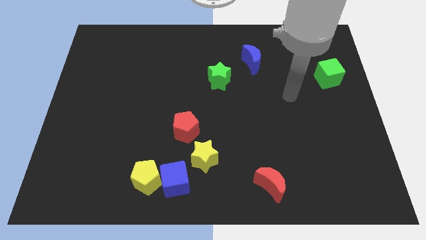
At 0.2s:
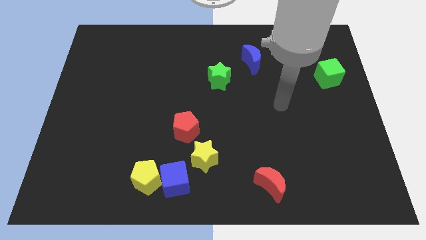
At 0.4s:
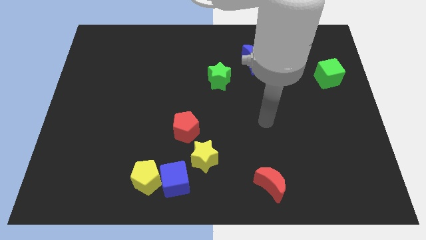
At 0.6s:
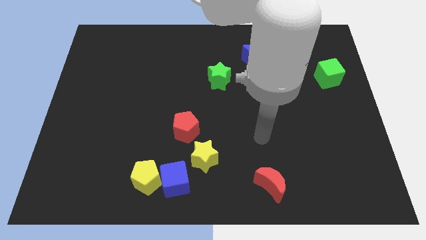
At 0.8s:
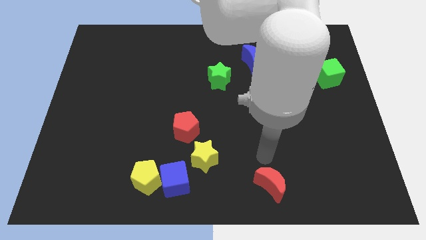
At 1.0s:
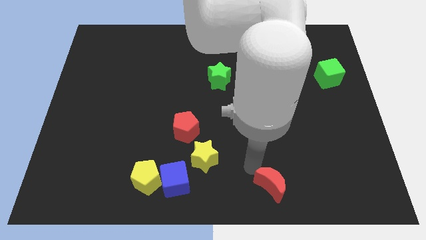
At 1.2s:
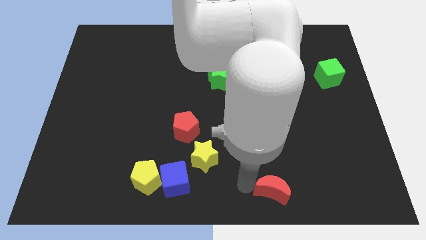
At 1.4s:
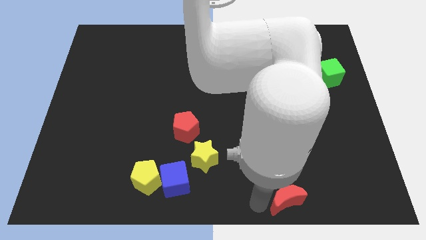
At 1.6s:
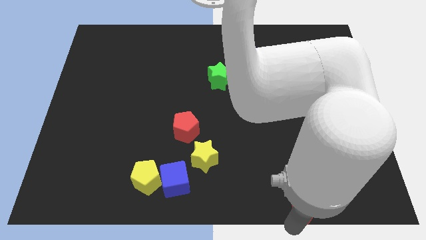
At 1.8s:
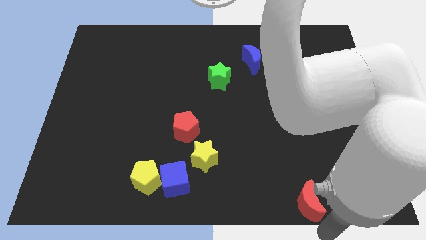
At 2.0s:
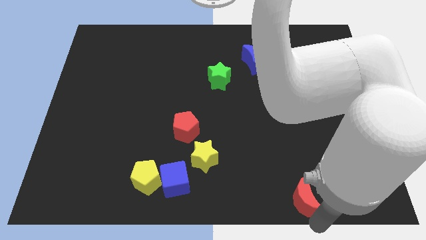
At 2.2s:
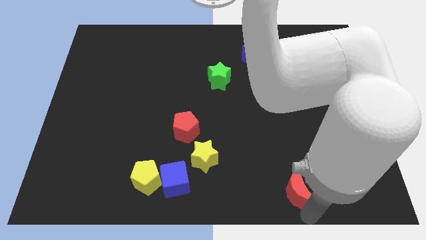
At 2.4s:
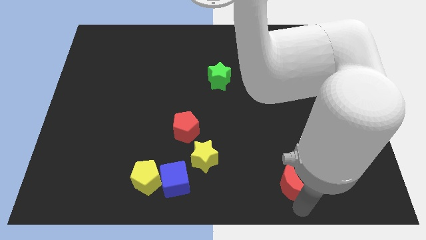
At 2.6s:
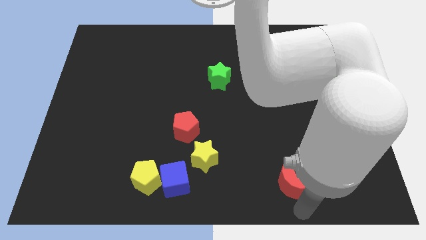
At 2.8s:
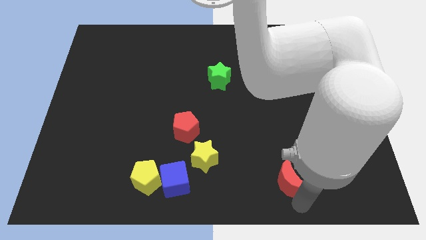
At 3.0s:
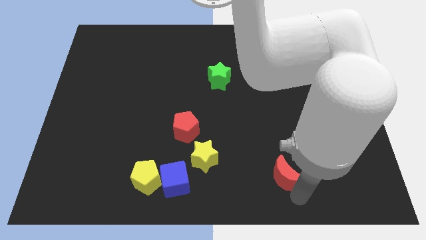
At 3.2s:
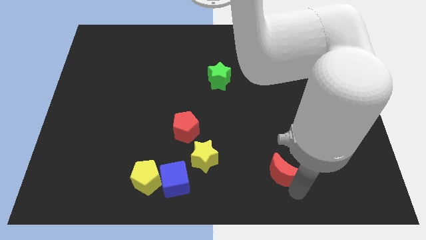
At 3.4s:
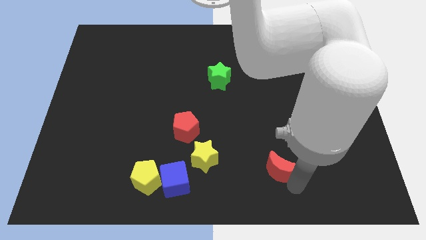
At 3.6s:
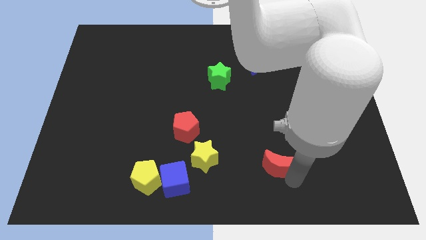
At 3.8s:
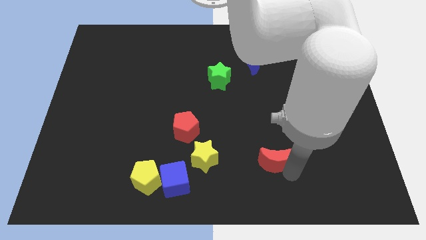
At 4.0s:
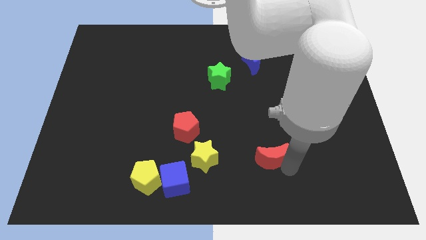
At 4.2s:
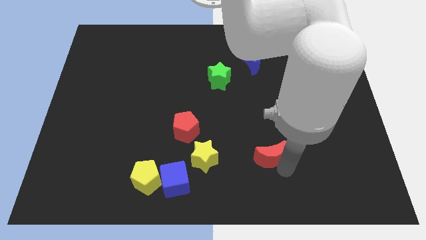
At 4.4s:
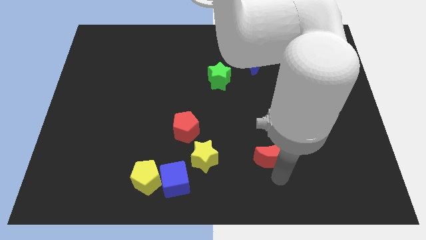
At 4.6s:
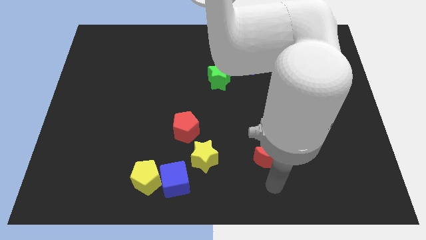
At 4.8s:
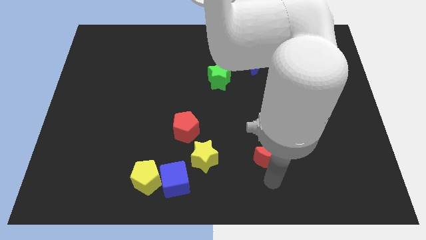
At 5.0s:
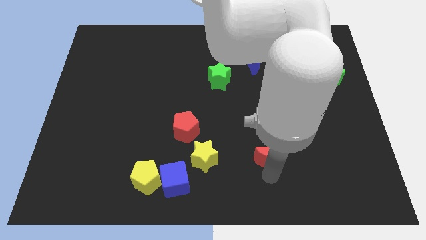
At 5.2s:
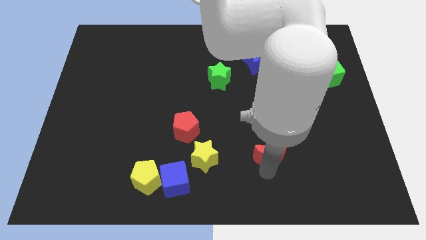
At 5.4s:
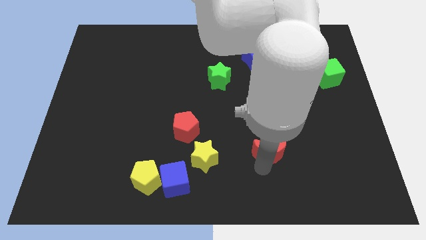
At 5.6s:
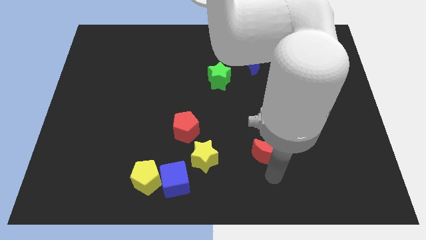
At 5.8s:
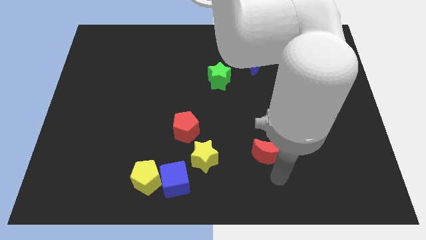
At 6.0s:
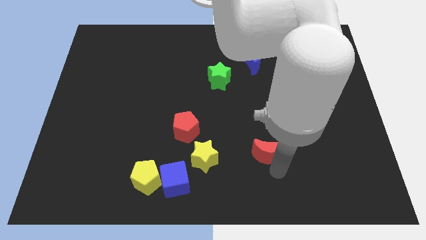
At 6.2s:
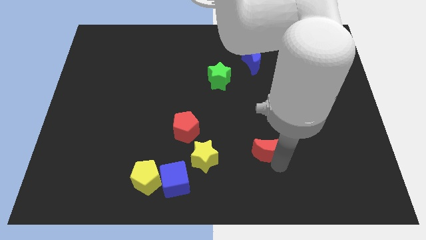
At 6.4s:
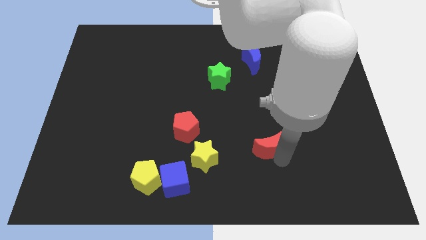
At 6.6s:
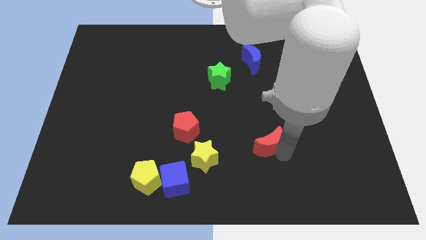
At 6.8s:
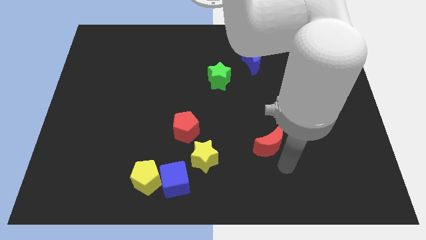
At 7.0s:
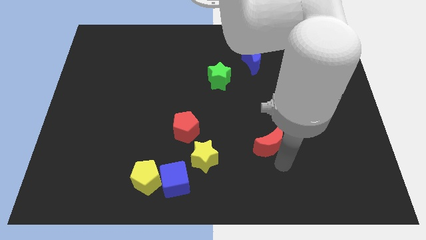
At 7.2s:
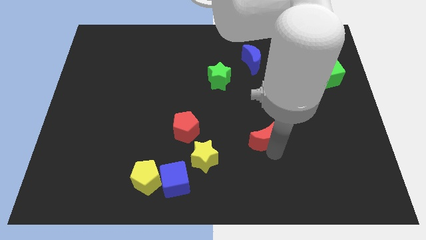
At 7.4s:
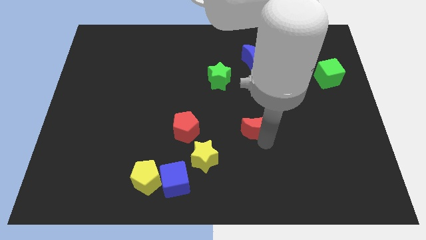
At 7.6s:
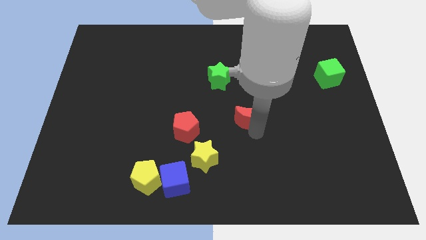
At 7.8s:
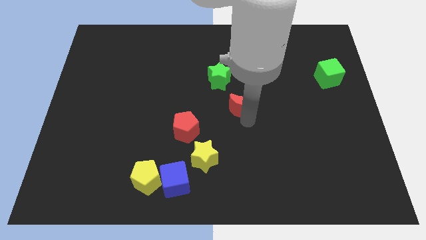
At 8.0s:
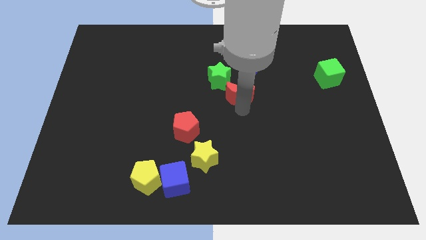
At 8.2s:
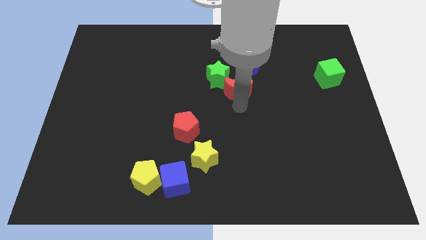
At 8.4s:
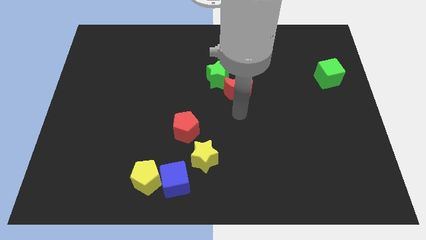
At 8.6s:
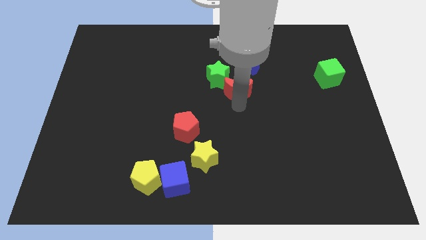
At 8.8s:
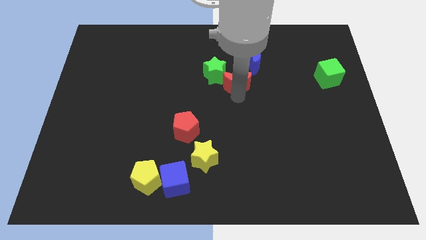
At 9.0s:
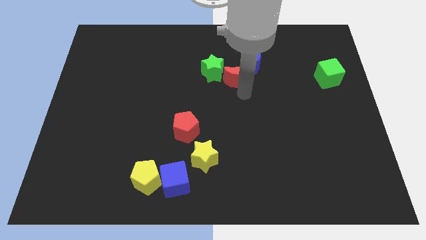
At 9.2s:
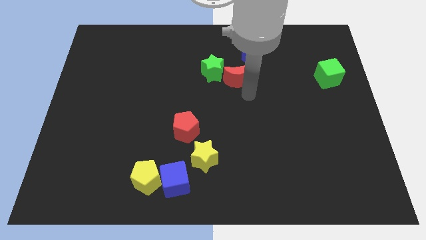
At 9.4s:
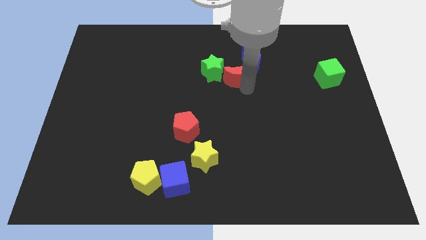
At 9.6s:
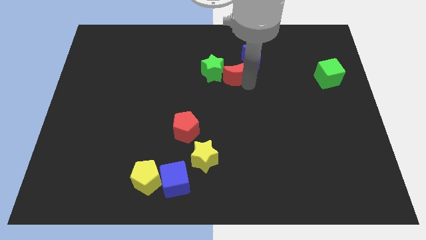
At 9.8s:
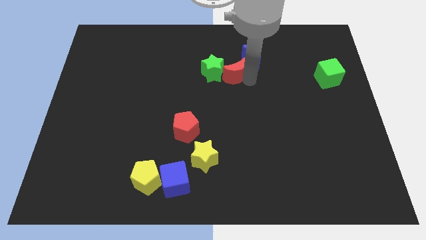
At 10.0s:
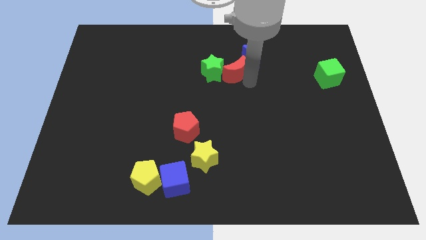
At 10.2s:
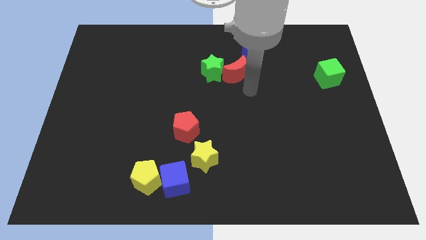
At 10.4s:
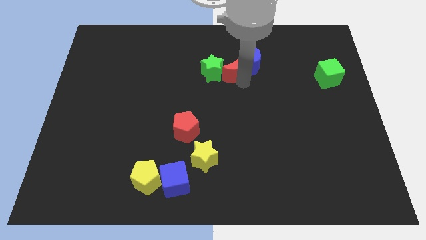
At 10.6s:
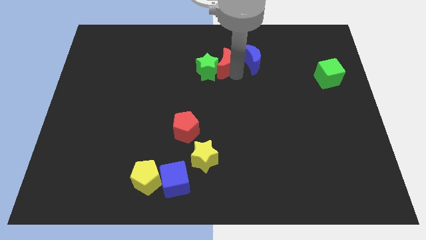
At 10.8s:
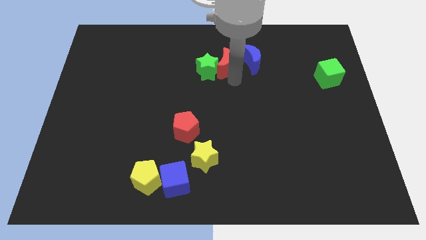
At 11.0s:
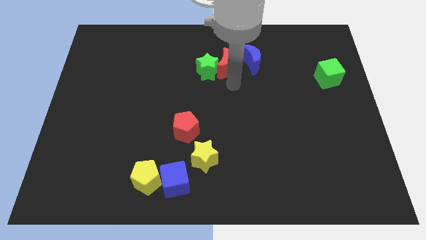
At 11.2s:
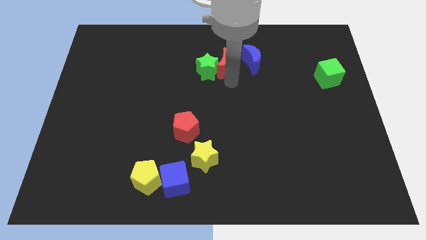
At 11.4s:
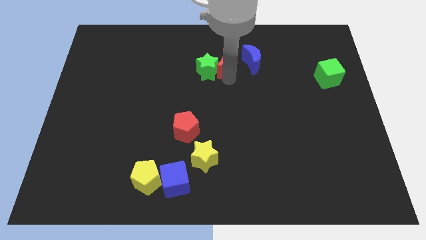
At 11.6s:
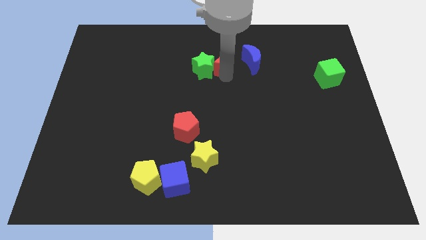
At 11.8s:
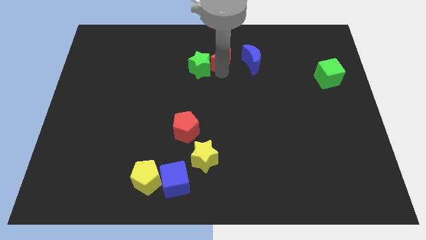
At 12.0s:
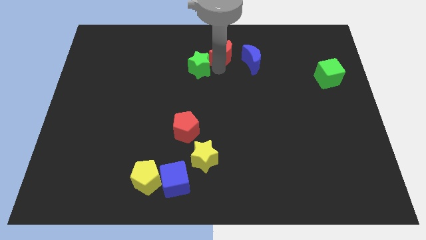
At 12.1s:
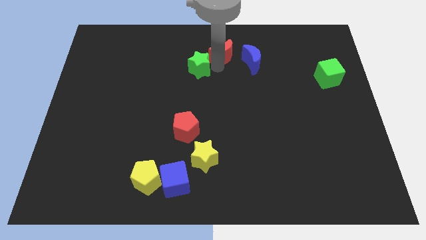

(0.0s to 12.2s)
move the red moon to the top

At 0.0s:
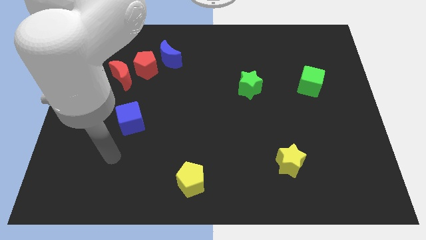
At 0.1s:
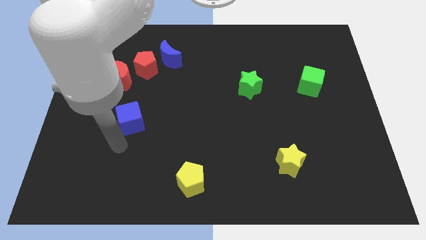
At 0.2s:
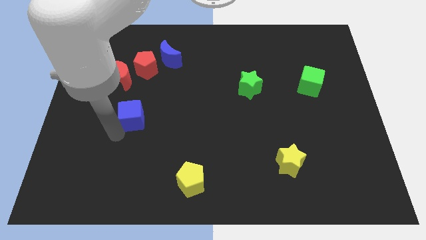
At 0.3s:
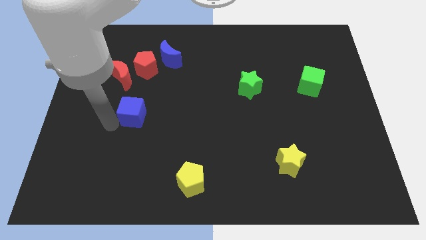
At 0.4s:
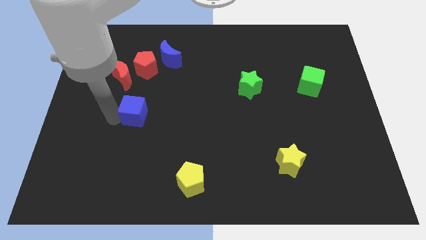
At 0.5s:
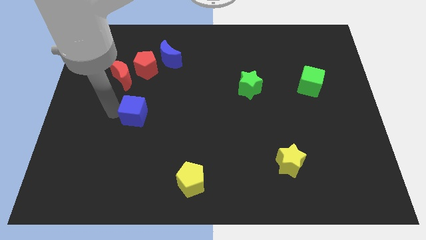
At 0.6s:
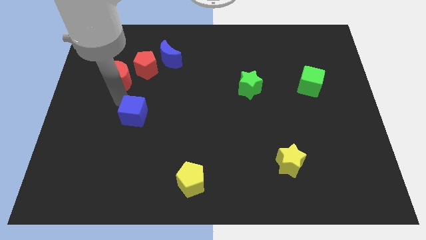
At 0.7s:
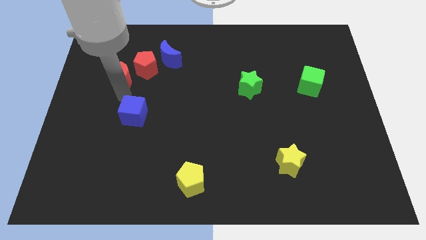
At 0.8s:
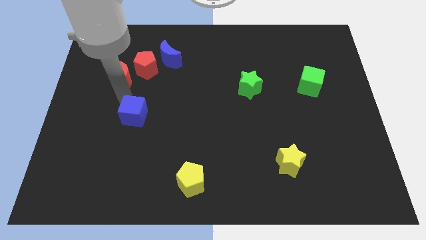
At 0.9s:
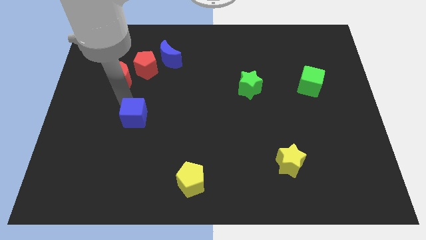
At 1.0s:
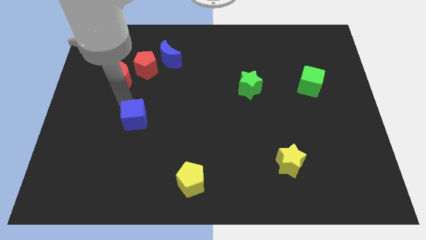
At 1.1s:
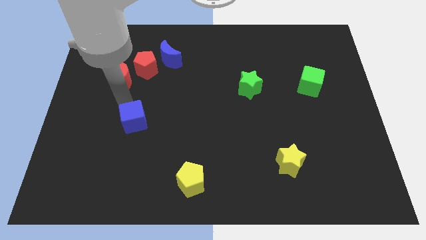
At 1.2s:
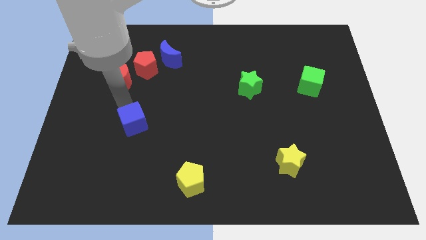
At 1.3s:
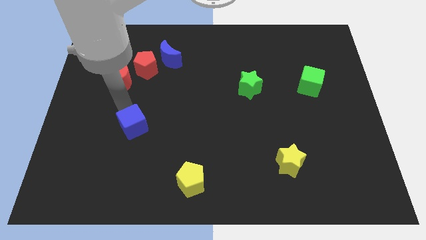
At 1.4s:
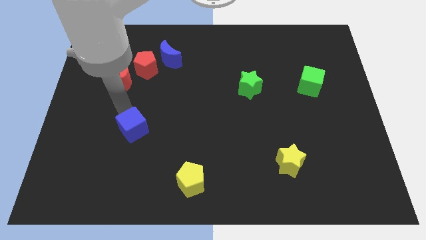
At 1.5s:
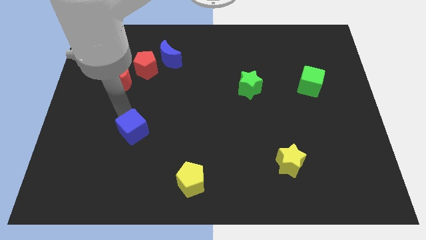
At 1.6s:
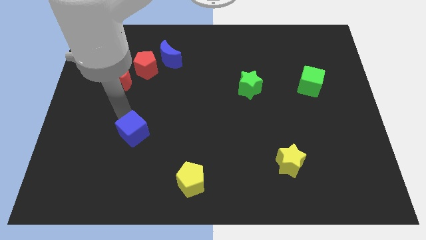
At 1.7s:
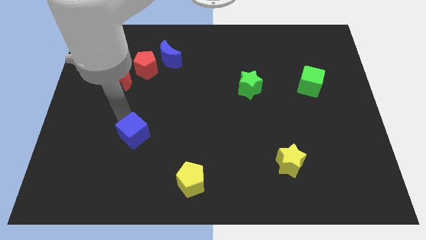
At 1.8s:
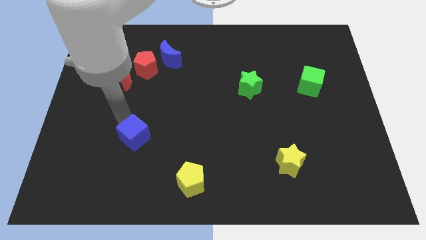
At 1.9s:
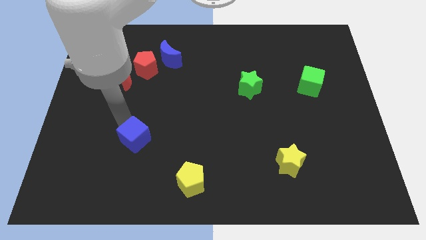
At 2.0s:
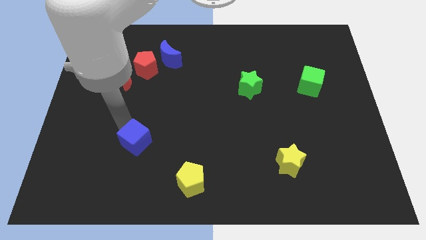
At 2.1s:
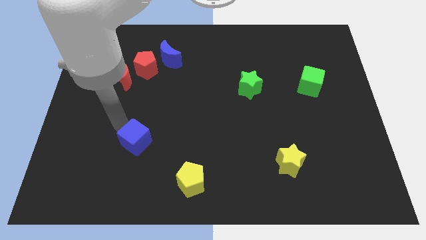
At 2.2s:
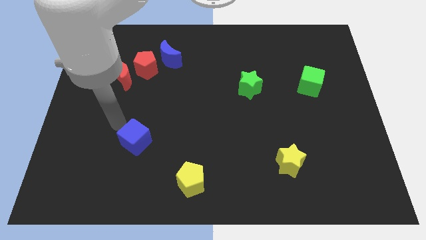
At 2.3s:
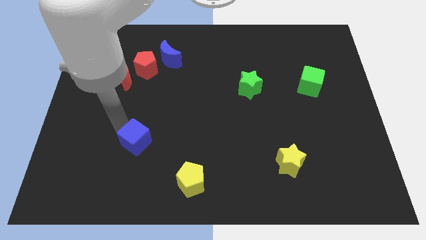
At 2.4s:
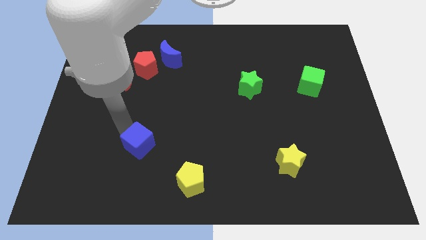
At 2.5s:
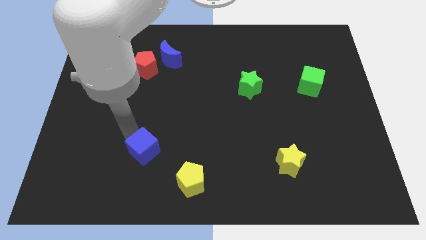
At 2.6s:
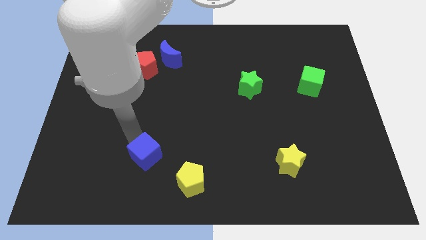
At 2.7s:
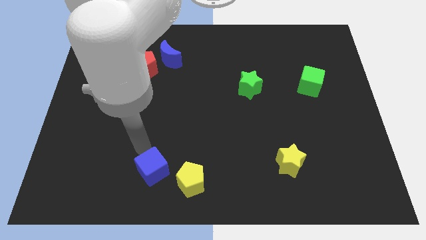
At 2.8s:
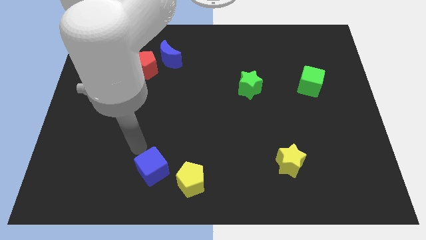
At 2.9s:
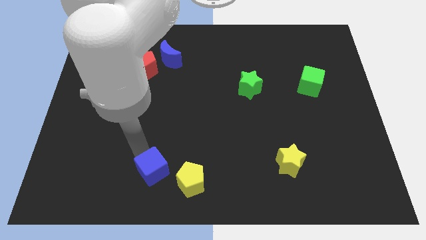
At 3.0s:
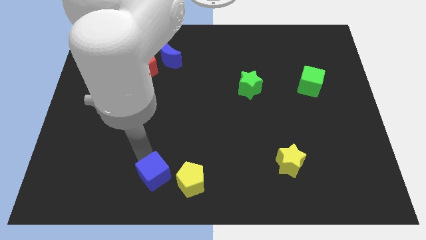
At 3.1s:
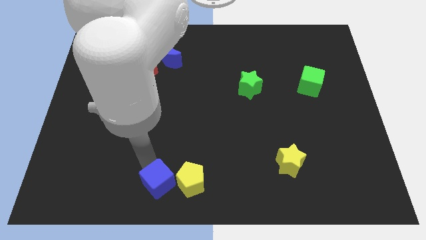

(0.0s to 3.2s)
slide the blue cube to the bottom side
